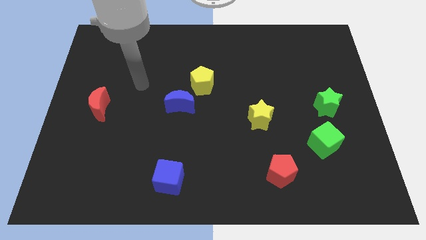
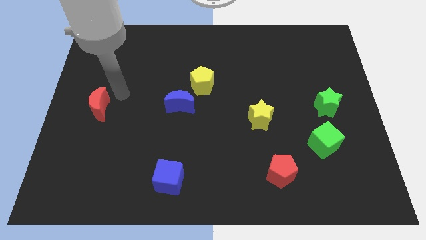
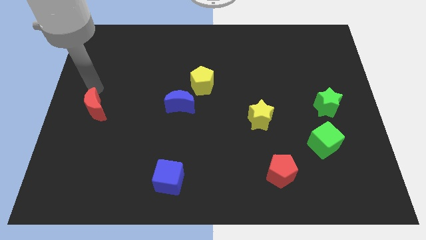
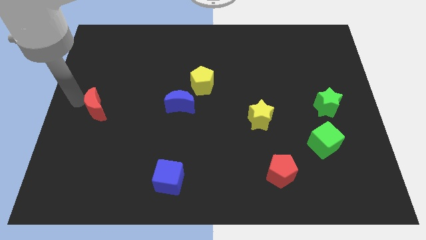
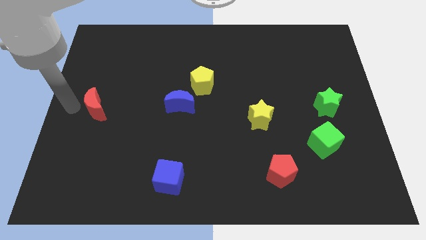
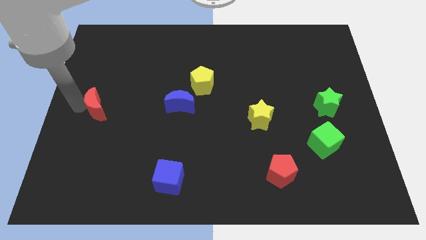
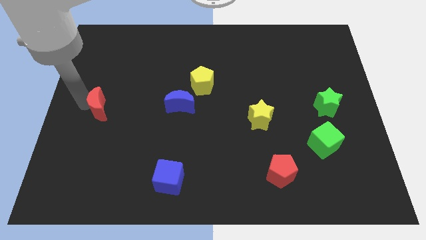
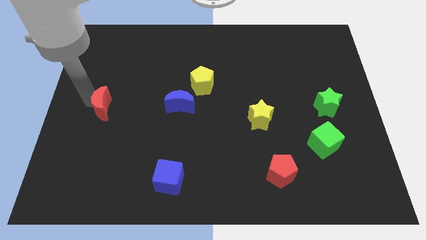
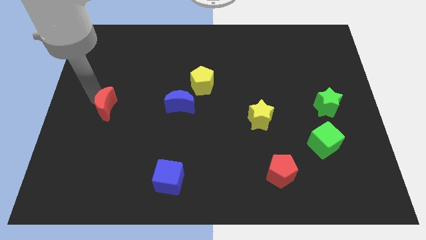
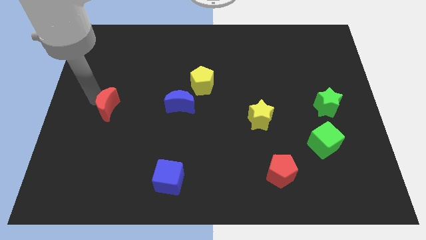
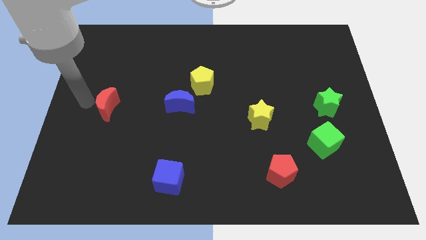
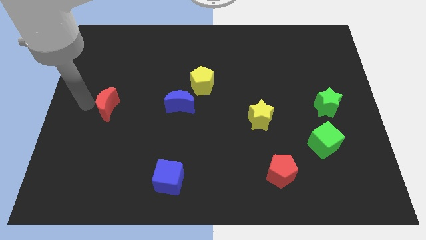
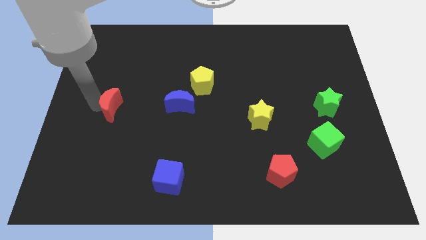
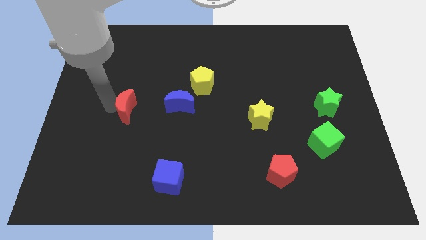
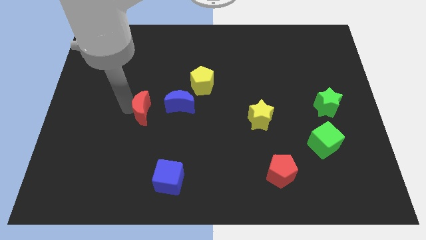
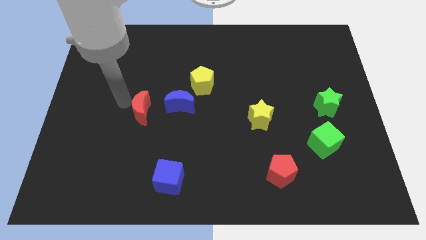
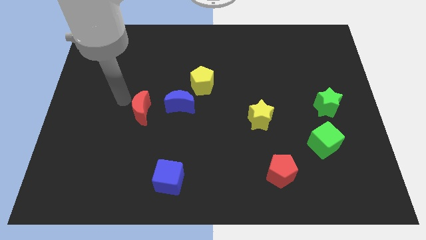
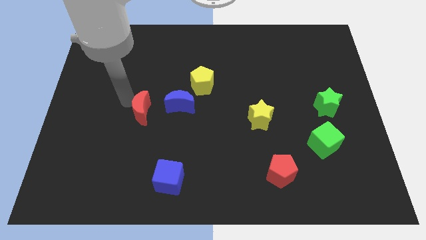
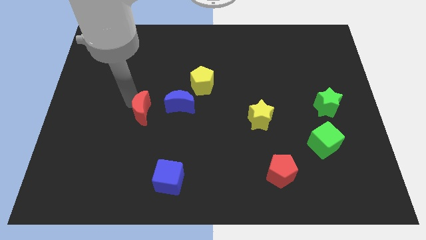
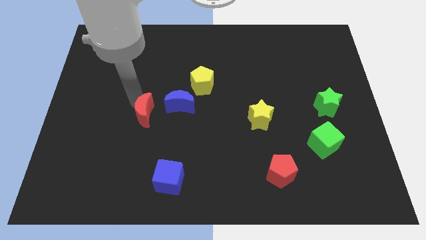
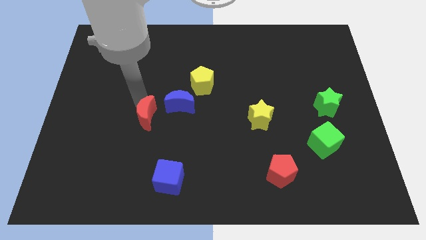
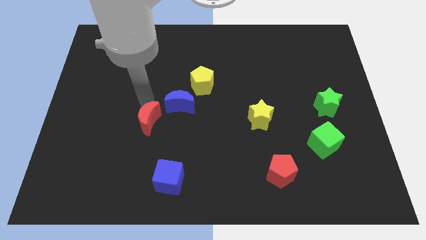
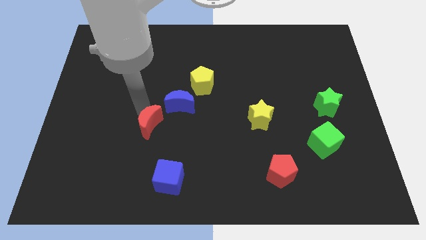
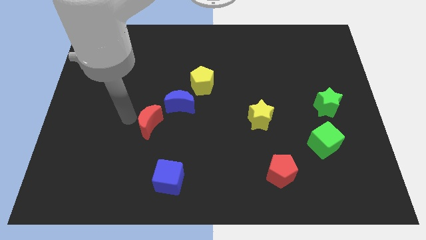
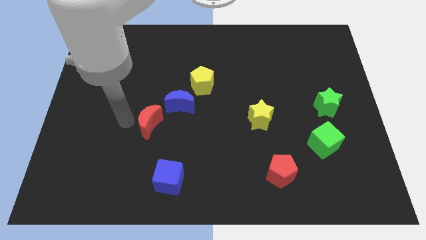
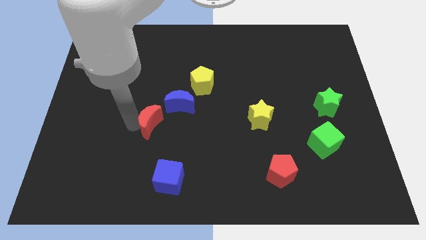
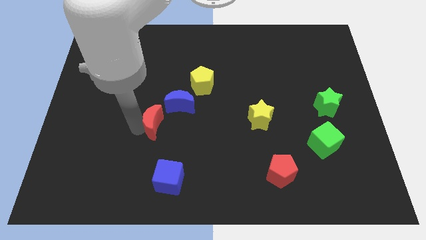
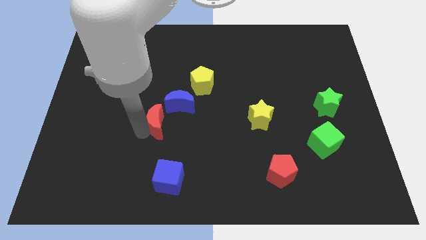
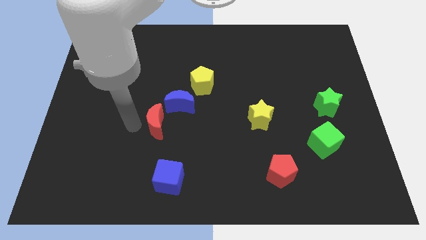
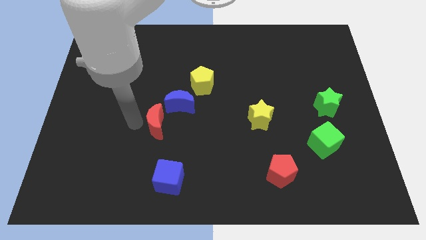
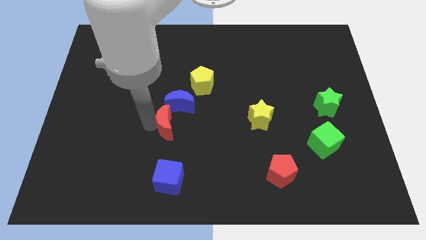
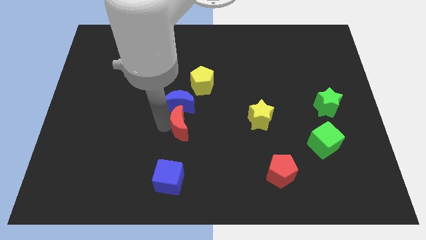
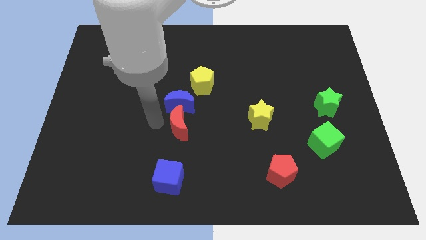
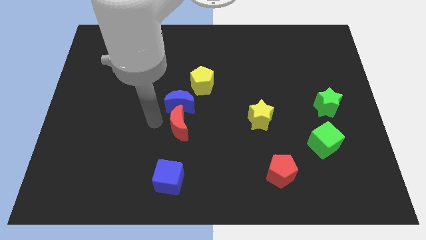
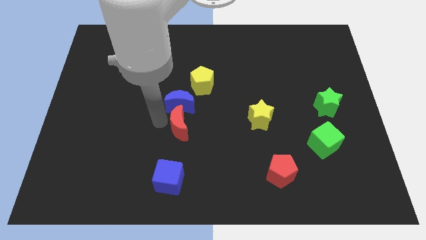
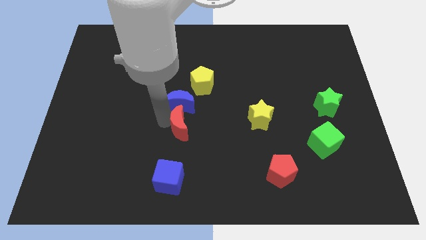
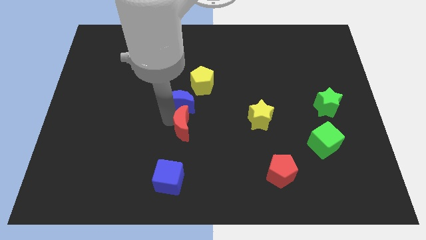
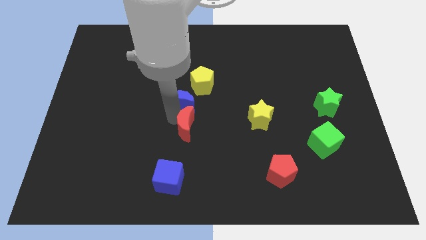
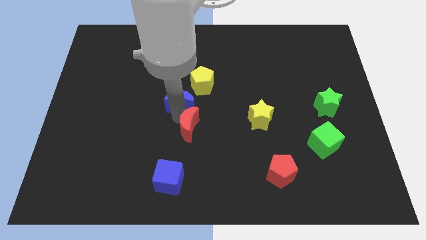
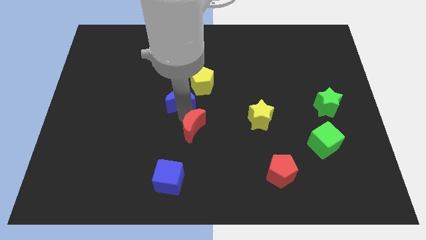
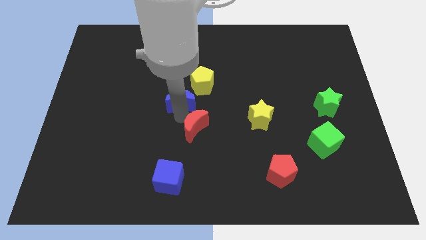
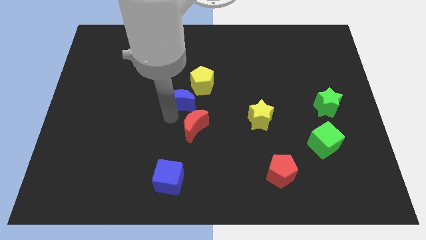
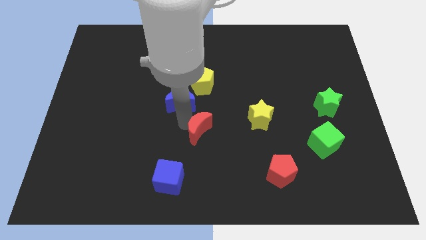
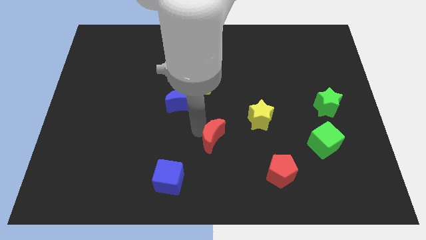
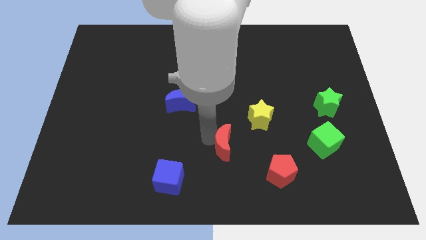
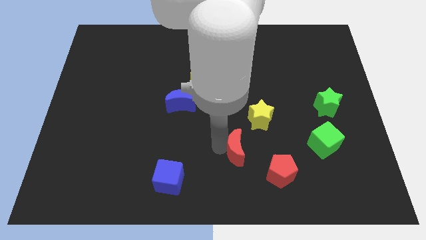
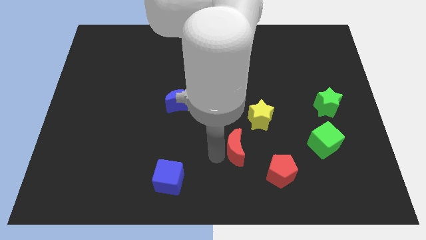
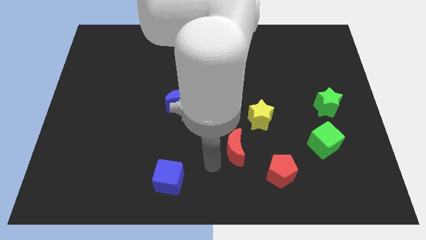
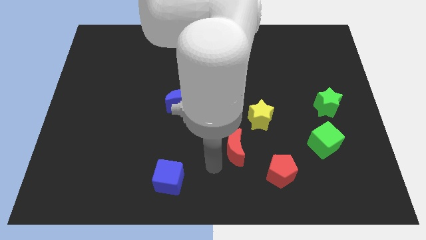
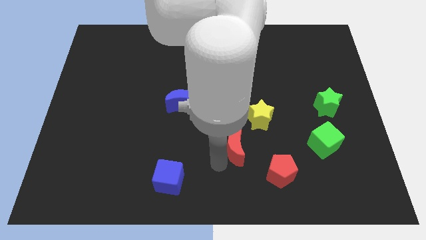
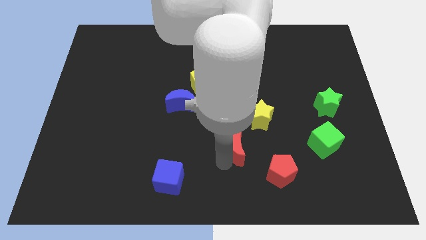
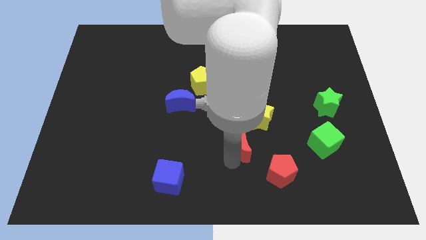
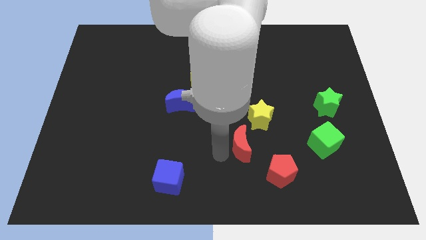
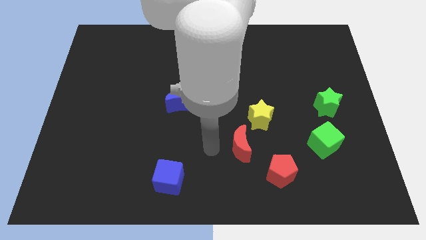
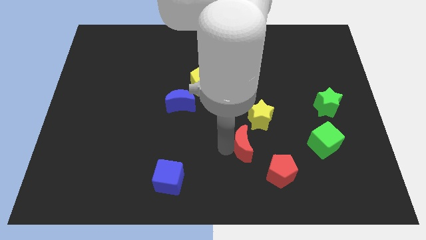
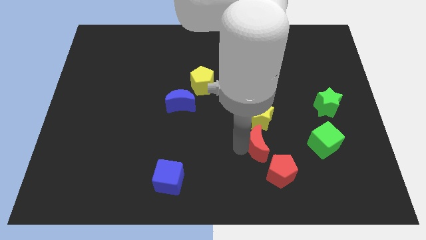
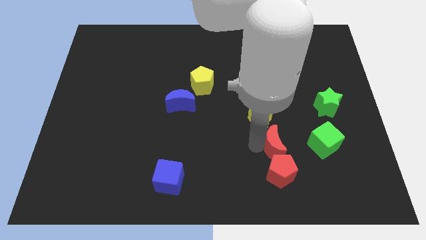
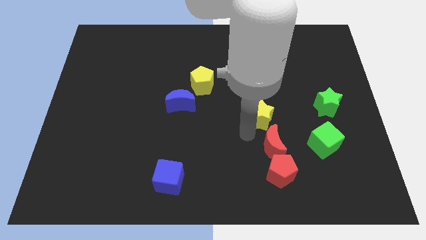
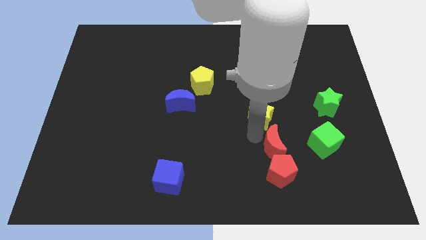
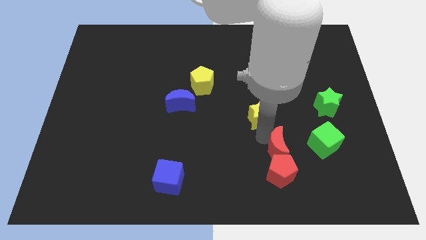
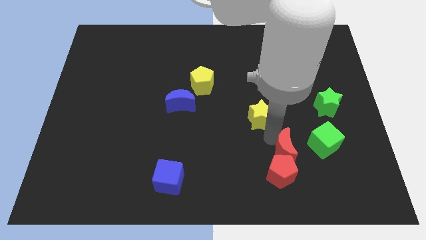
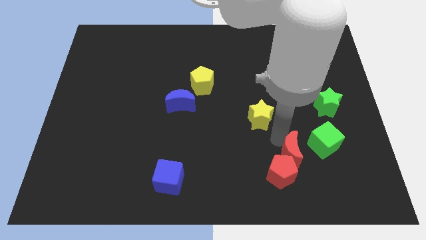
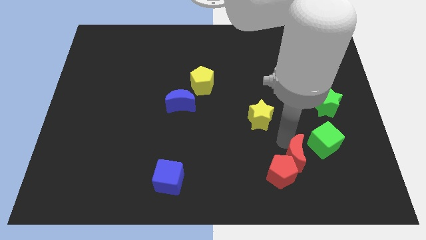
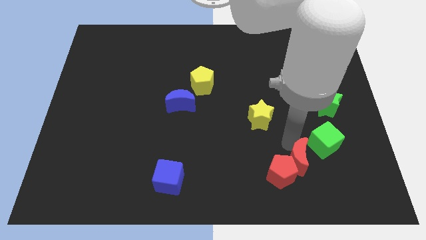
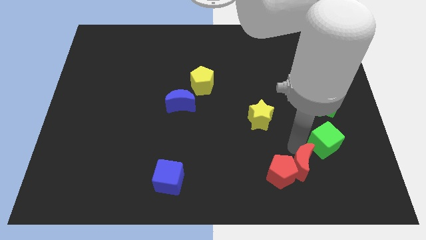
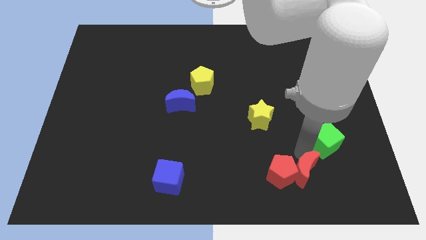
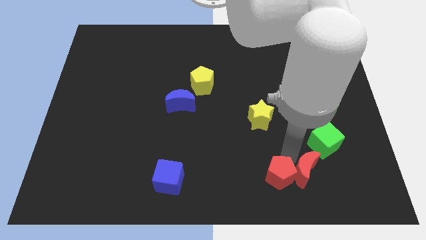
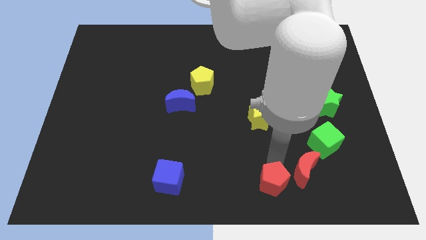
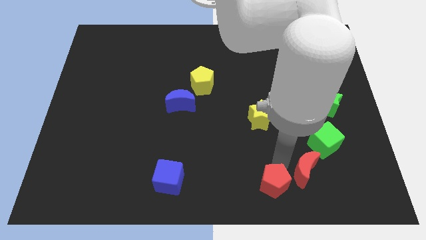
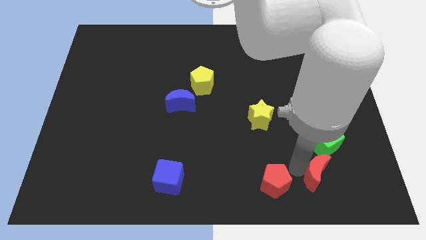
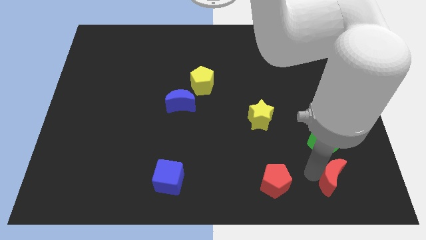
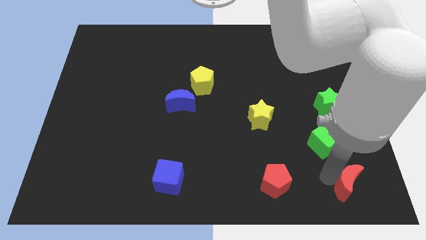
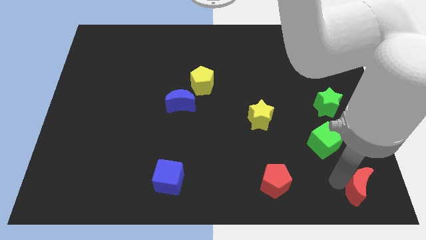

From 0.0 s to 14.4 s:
push the red moon to the lower right corner
